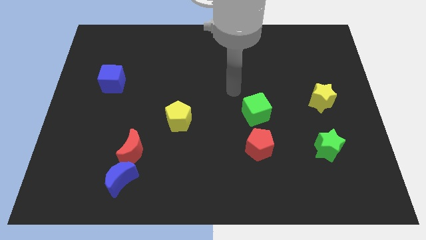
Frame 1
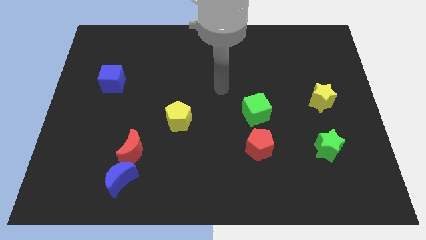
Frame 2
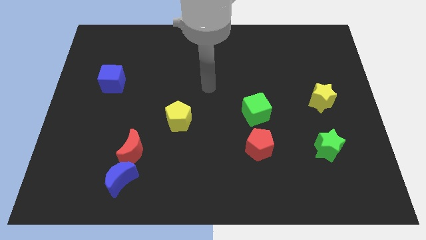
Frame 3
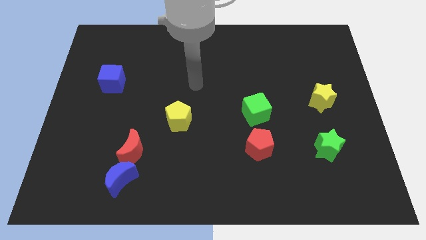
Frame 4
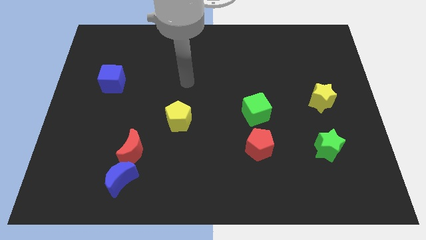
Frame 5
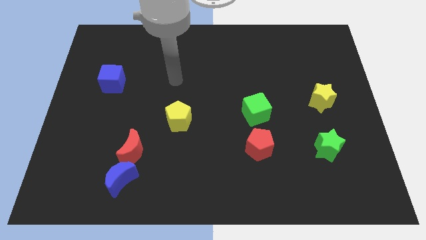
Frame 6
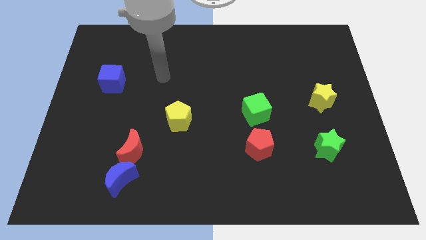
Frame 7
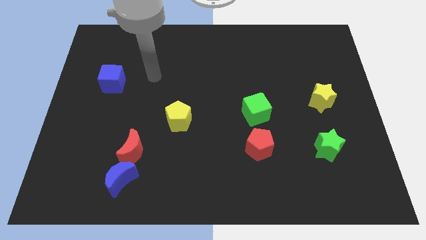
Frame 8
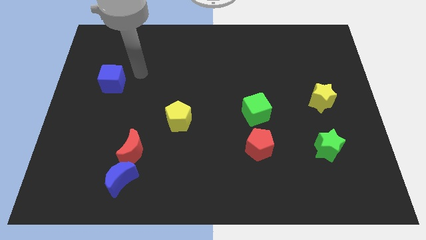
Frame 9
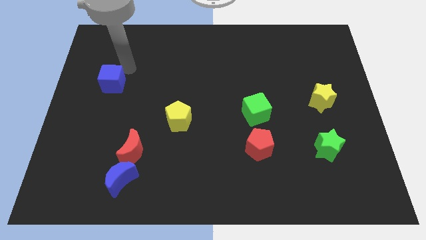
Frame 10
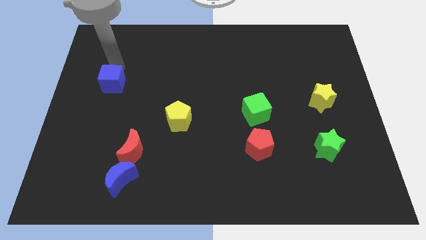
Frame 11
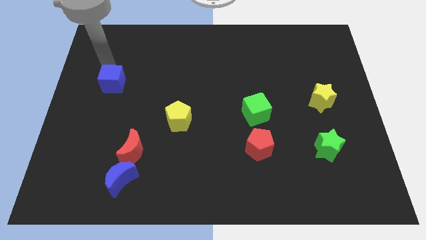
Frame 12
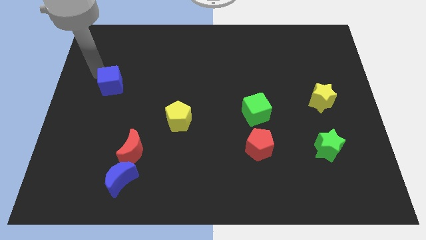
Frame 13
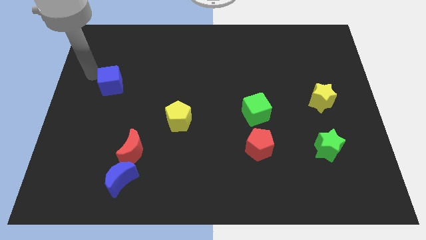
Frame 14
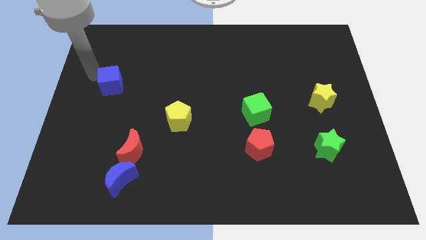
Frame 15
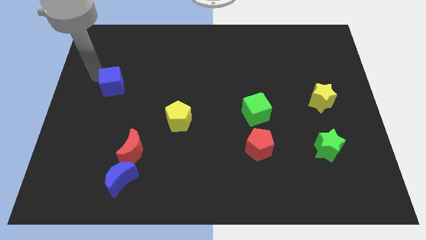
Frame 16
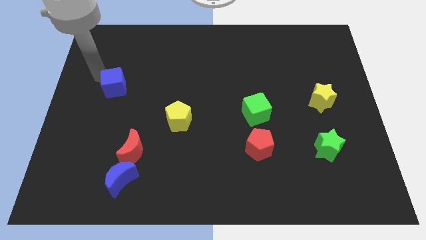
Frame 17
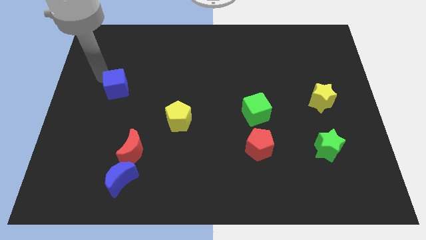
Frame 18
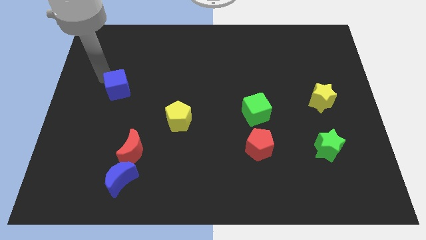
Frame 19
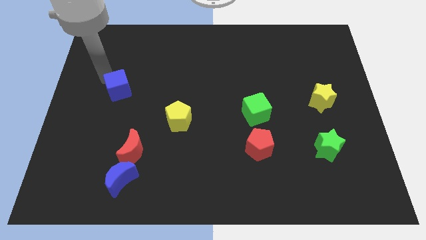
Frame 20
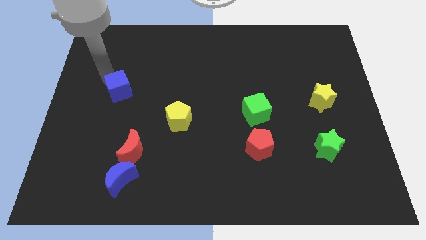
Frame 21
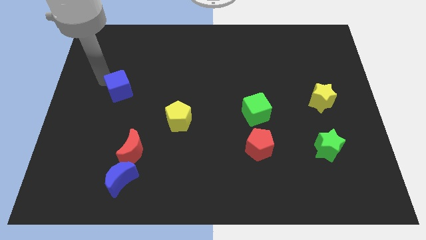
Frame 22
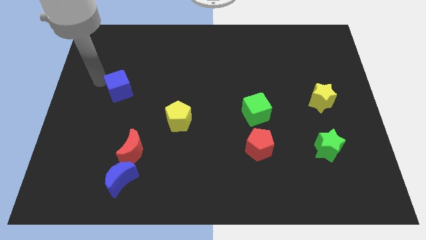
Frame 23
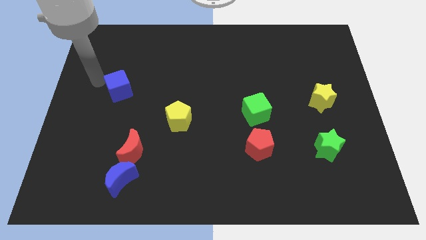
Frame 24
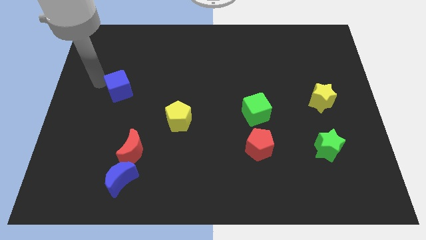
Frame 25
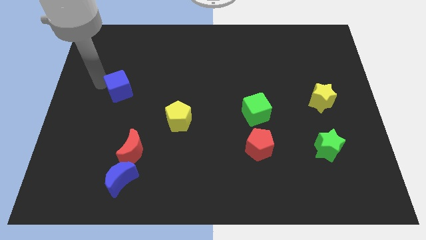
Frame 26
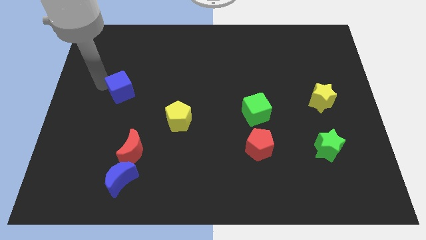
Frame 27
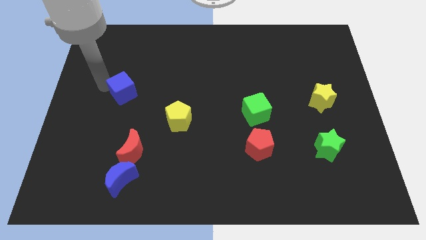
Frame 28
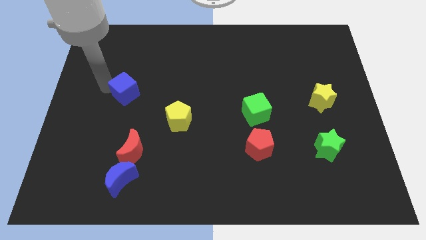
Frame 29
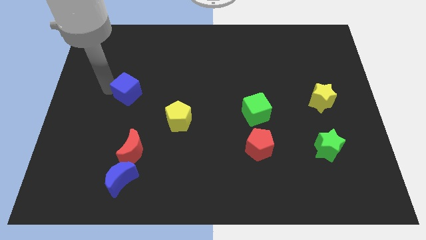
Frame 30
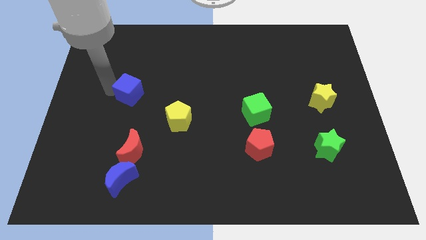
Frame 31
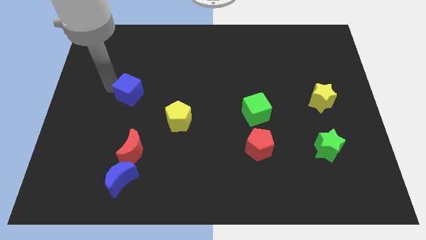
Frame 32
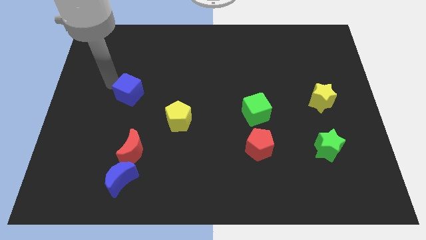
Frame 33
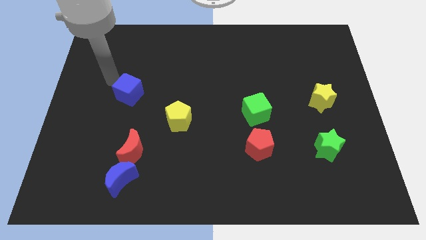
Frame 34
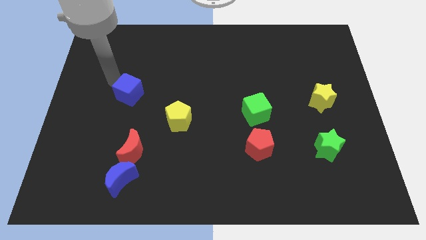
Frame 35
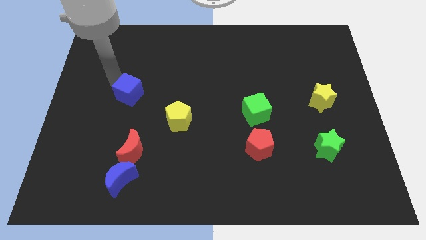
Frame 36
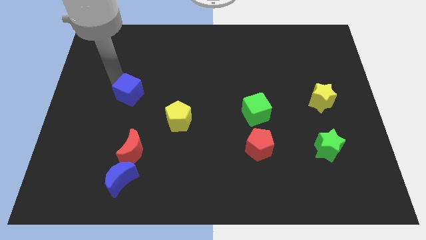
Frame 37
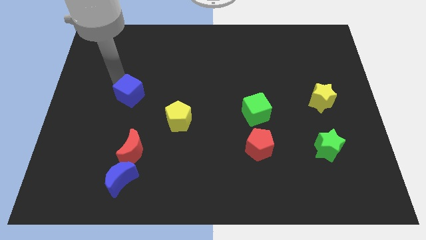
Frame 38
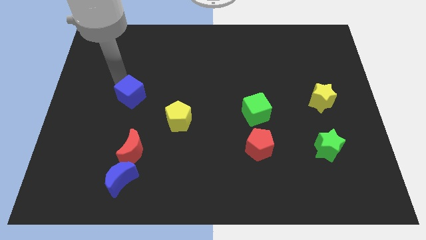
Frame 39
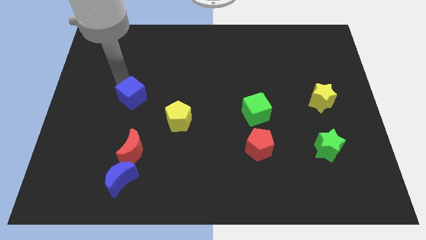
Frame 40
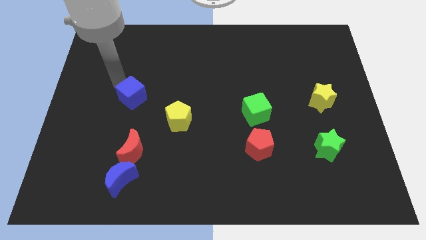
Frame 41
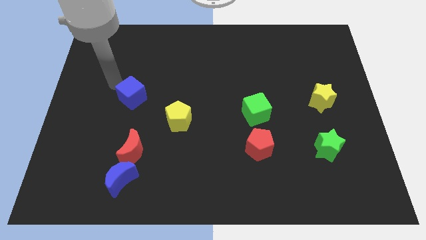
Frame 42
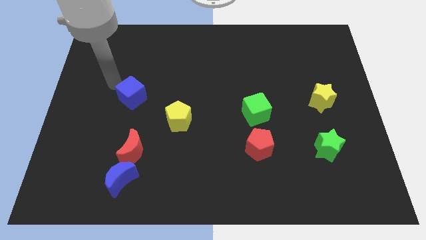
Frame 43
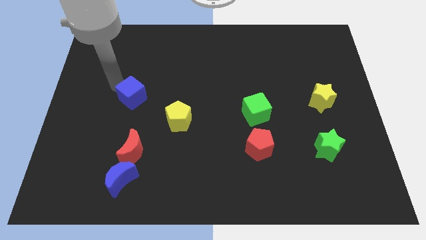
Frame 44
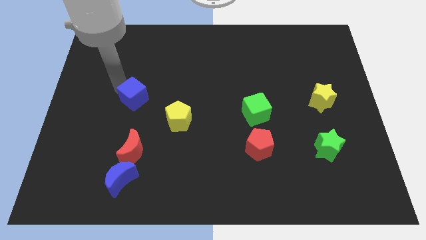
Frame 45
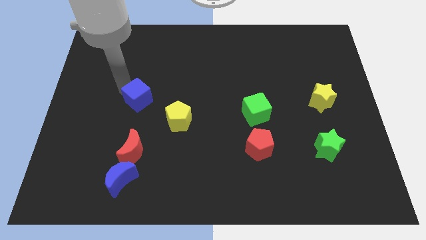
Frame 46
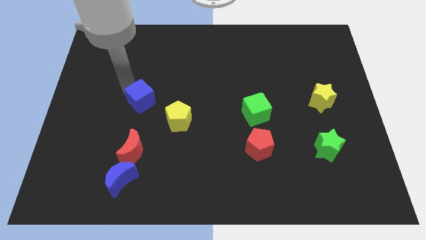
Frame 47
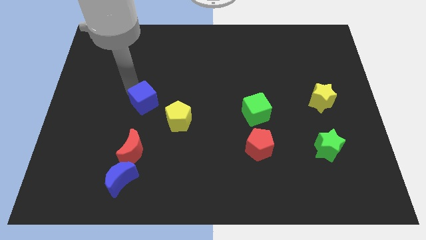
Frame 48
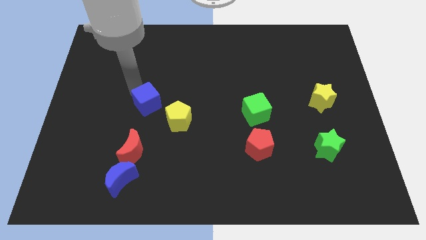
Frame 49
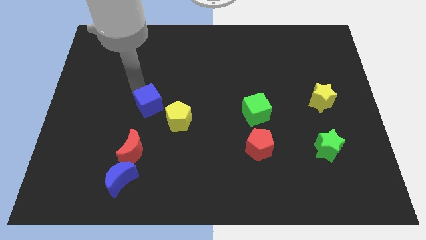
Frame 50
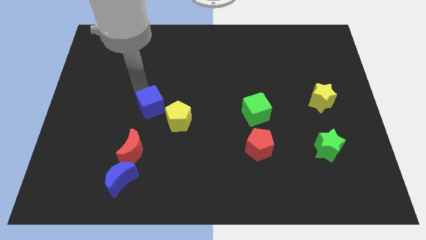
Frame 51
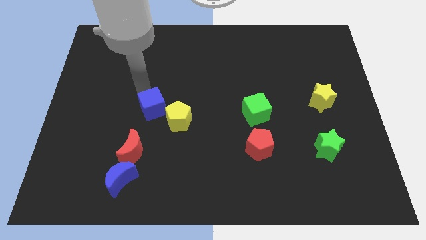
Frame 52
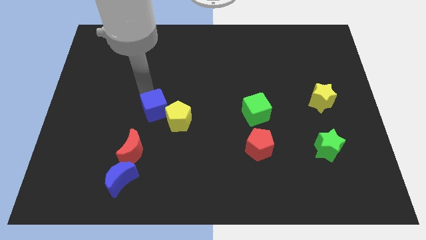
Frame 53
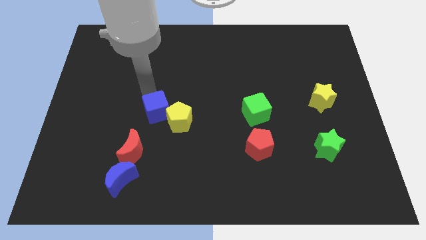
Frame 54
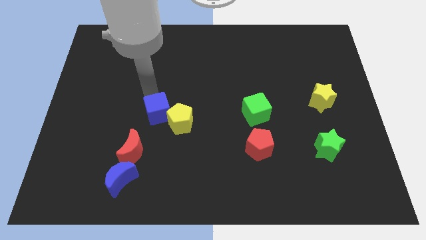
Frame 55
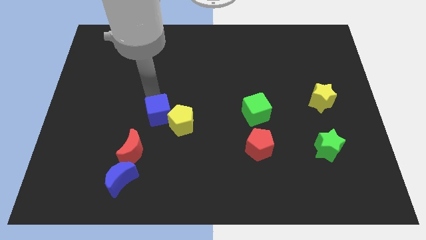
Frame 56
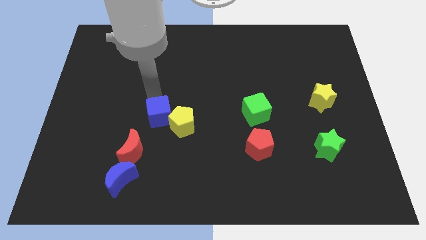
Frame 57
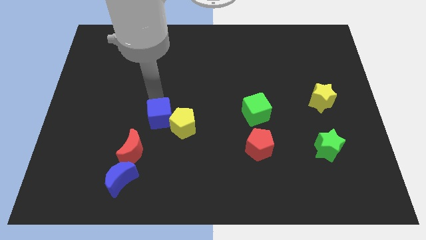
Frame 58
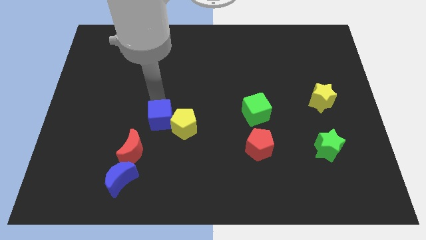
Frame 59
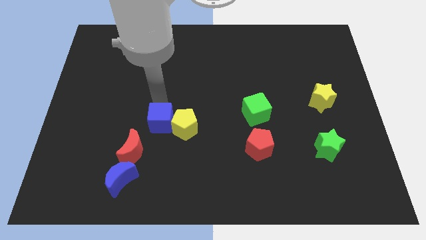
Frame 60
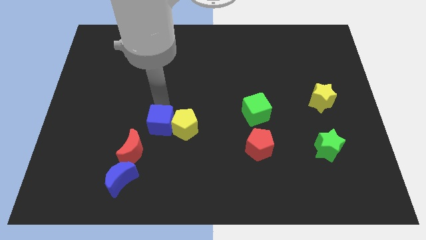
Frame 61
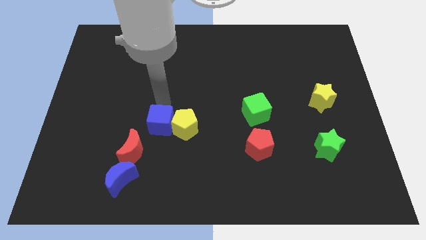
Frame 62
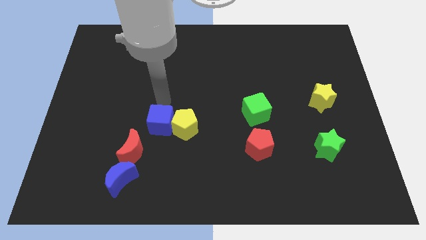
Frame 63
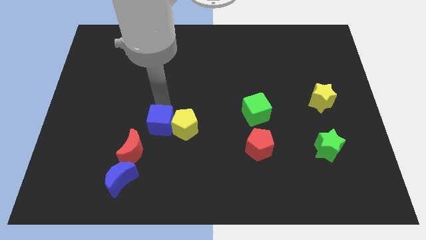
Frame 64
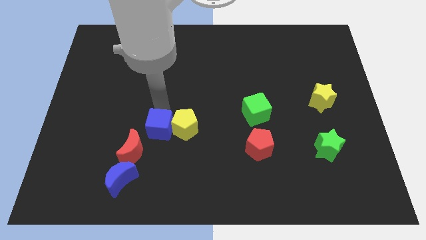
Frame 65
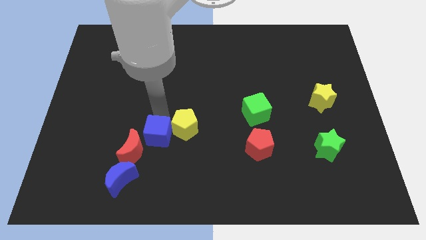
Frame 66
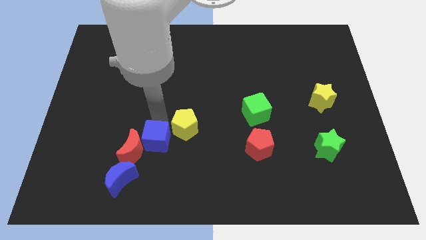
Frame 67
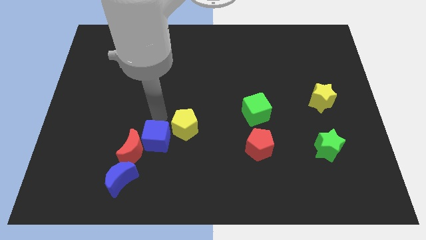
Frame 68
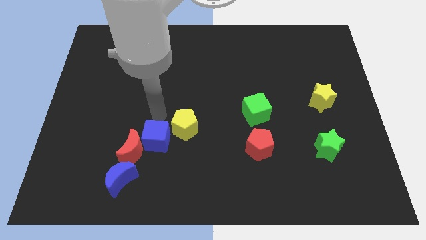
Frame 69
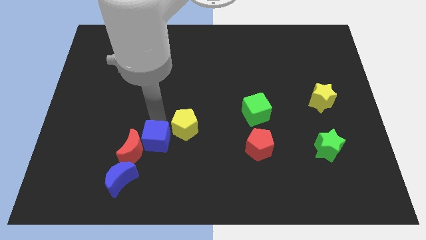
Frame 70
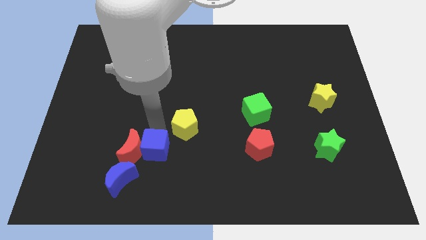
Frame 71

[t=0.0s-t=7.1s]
move the blue cube to the bottom right of the red moon
